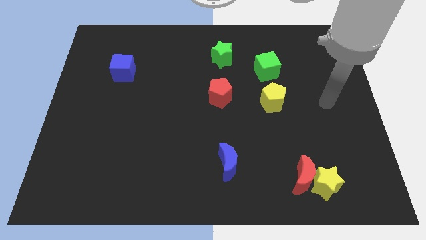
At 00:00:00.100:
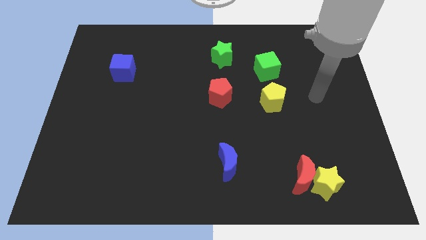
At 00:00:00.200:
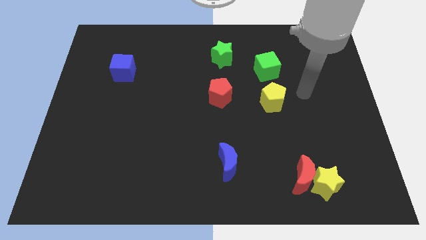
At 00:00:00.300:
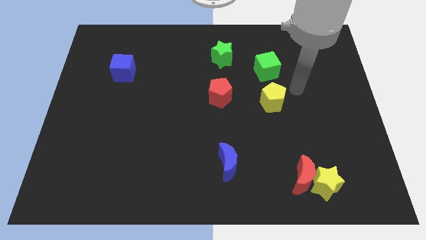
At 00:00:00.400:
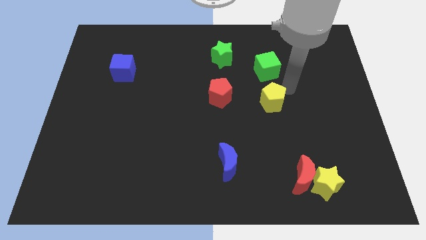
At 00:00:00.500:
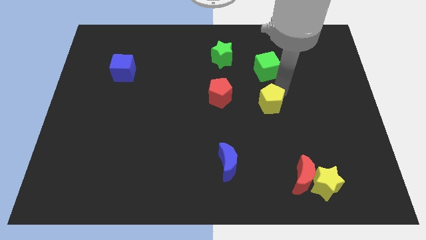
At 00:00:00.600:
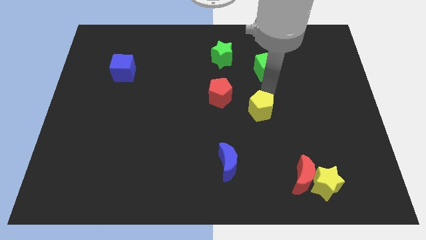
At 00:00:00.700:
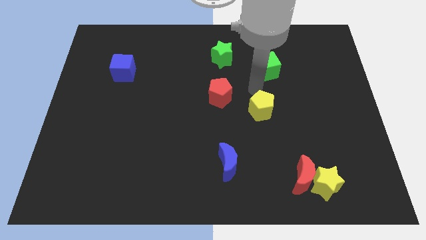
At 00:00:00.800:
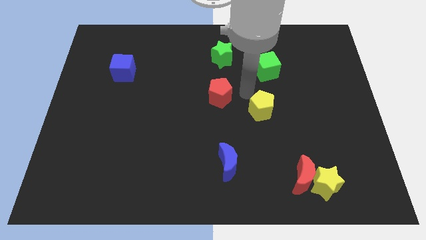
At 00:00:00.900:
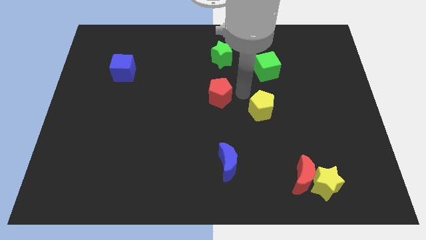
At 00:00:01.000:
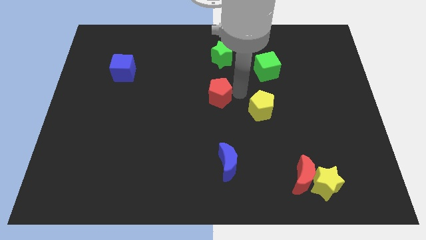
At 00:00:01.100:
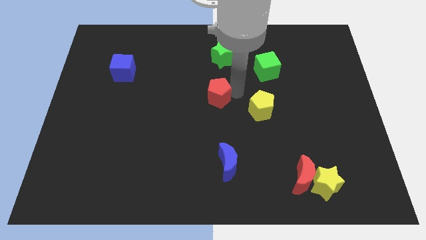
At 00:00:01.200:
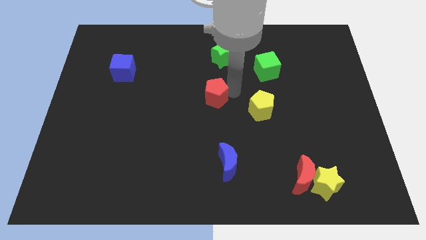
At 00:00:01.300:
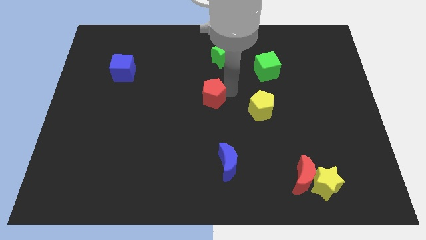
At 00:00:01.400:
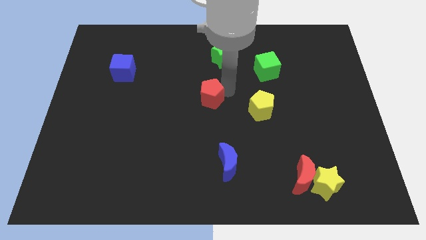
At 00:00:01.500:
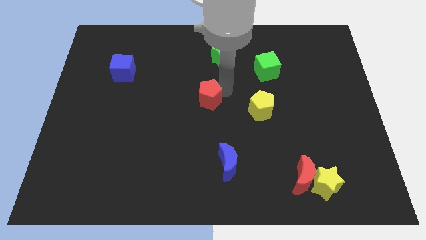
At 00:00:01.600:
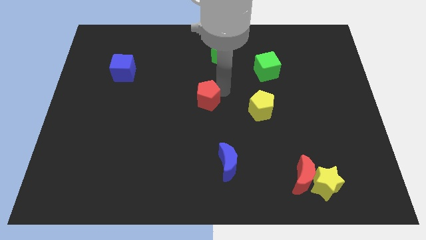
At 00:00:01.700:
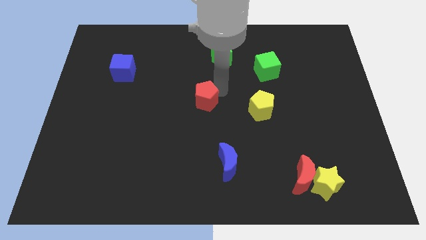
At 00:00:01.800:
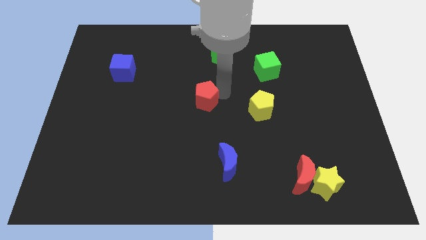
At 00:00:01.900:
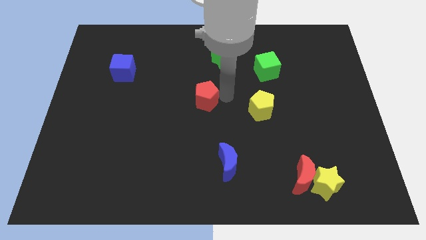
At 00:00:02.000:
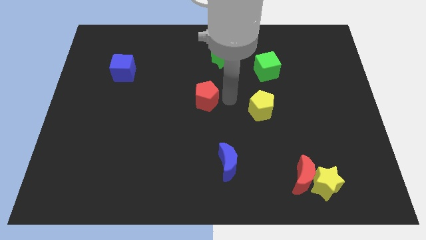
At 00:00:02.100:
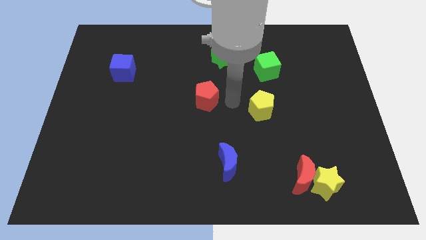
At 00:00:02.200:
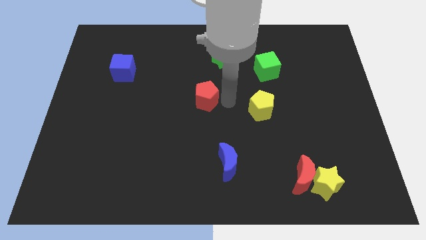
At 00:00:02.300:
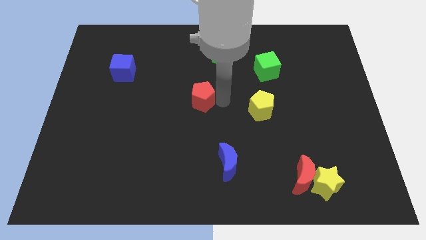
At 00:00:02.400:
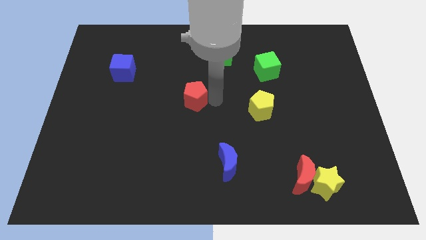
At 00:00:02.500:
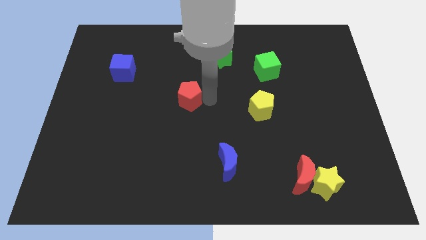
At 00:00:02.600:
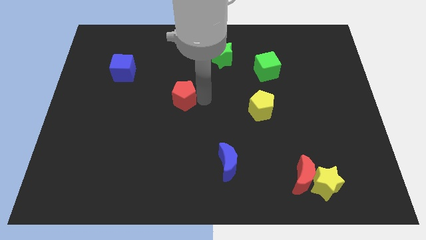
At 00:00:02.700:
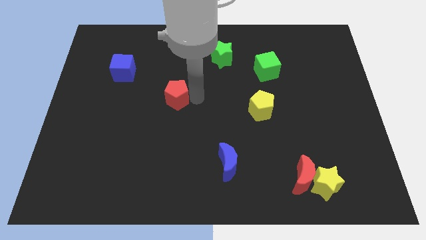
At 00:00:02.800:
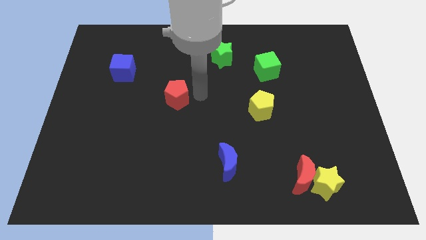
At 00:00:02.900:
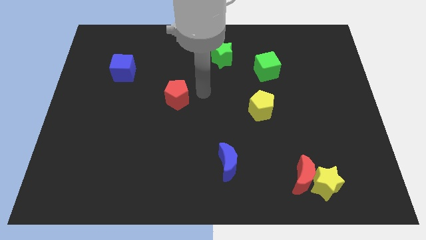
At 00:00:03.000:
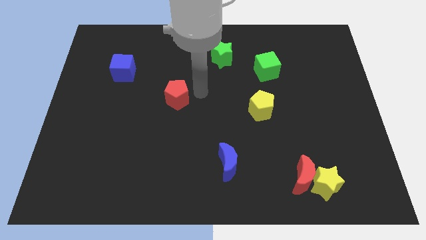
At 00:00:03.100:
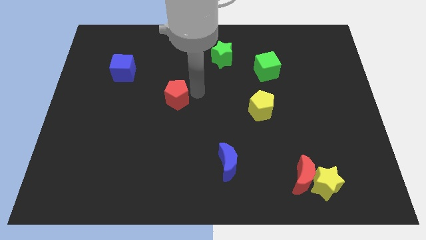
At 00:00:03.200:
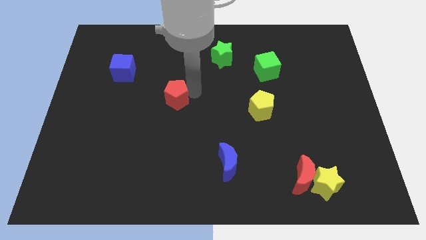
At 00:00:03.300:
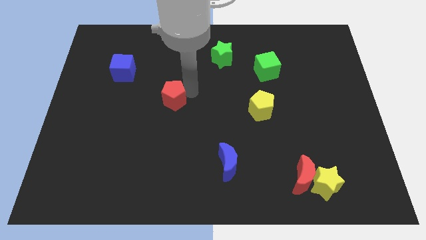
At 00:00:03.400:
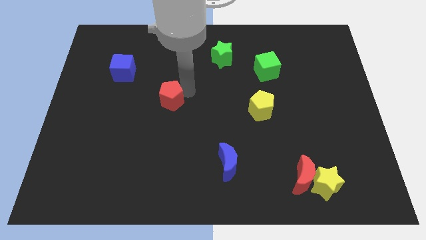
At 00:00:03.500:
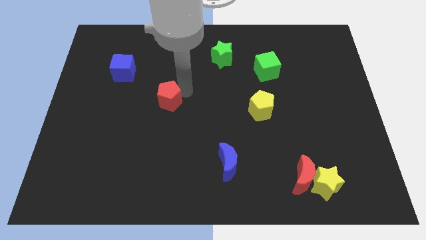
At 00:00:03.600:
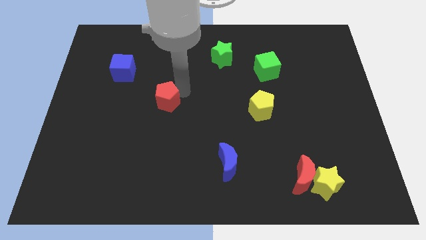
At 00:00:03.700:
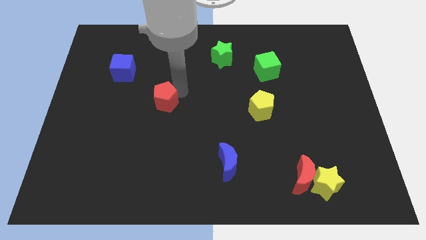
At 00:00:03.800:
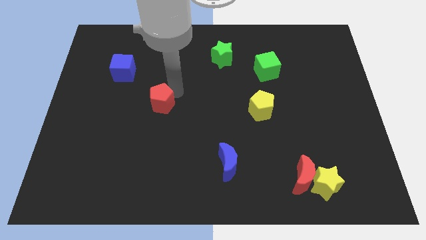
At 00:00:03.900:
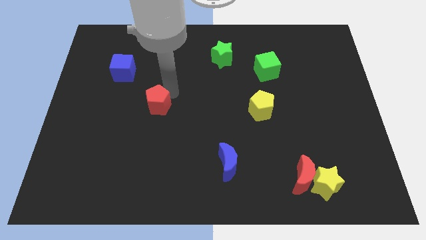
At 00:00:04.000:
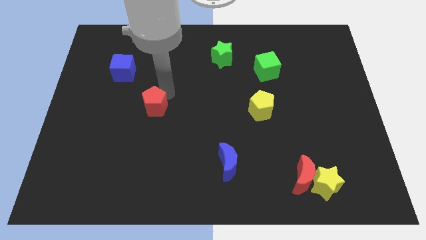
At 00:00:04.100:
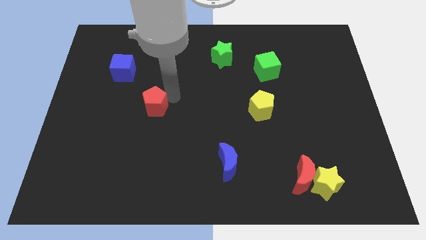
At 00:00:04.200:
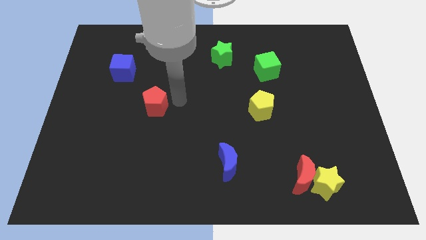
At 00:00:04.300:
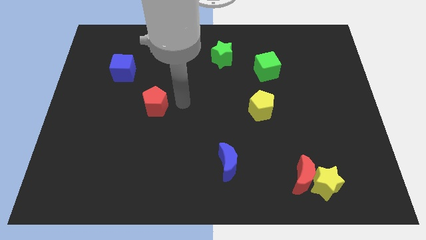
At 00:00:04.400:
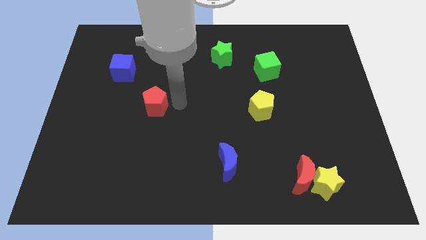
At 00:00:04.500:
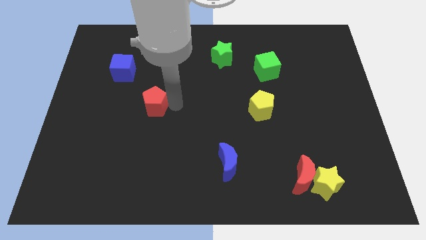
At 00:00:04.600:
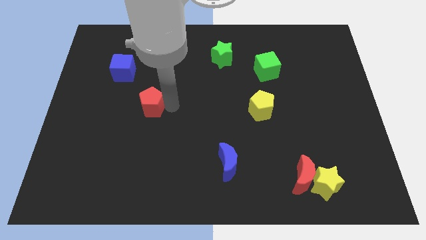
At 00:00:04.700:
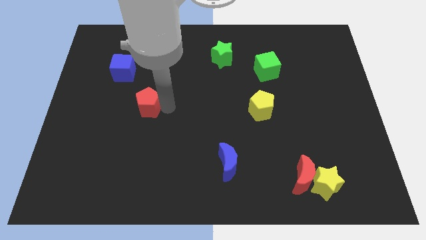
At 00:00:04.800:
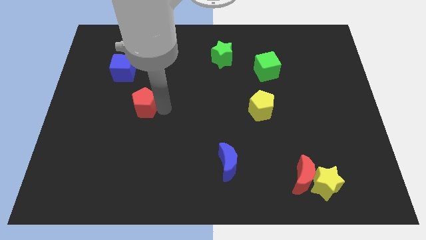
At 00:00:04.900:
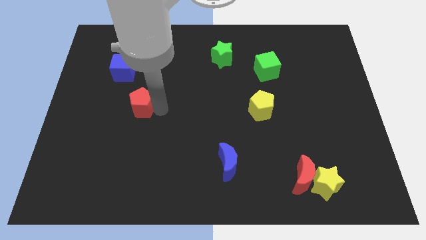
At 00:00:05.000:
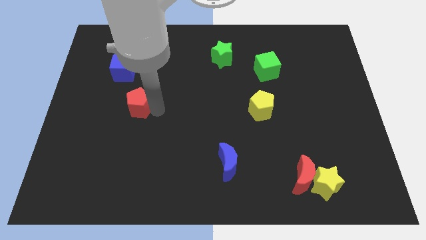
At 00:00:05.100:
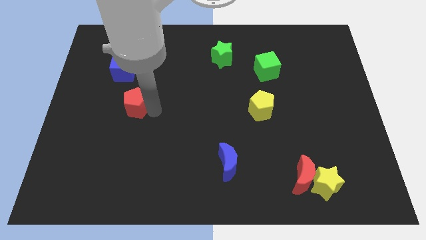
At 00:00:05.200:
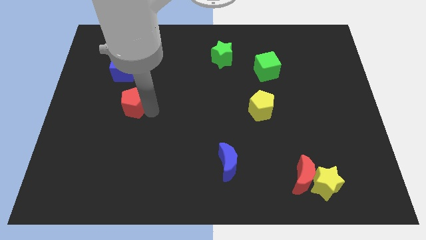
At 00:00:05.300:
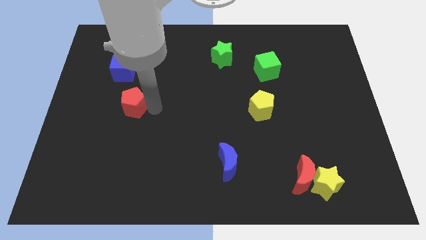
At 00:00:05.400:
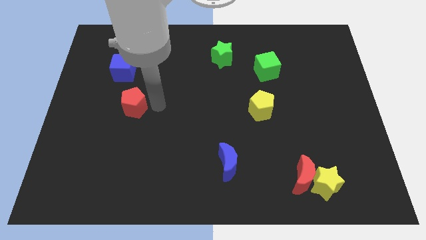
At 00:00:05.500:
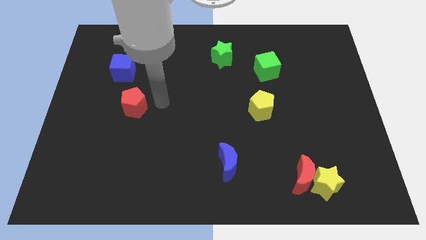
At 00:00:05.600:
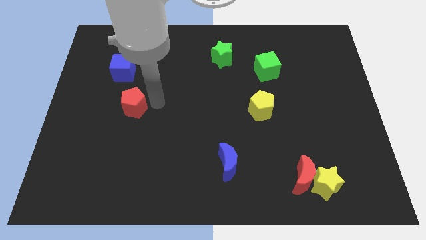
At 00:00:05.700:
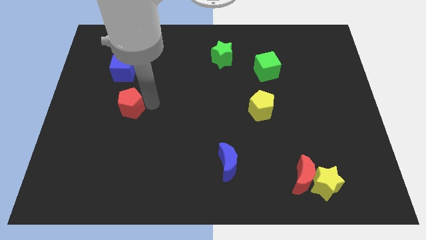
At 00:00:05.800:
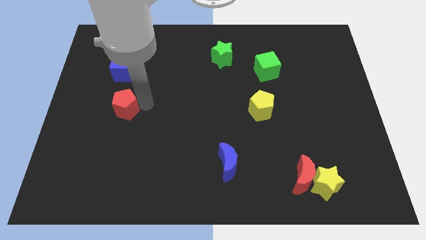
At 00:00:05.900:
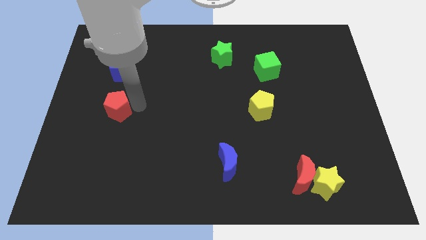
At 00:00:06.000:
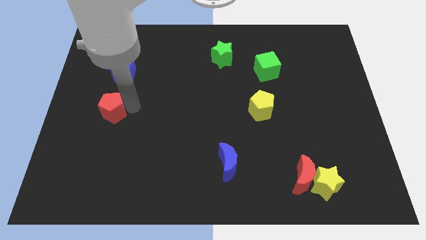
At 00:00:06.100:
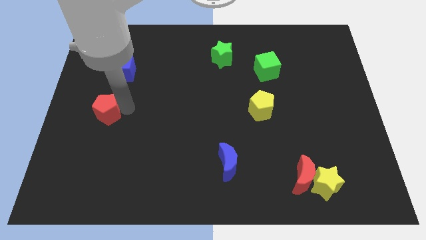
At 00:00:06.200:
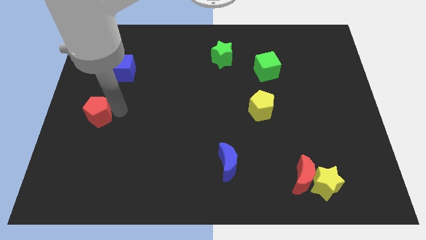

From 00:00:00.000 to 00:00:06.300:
move the red pentagon to the center left
